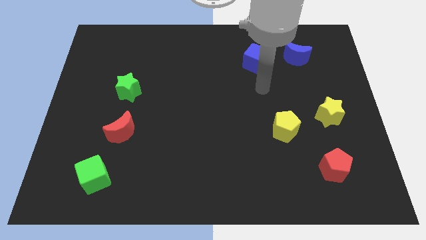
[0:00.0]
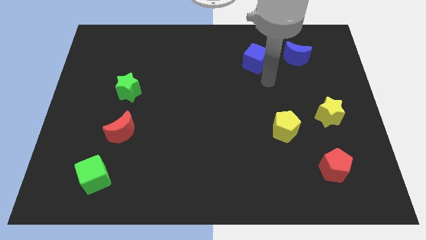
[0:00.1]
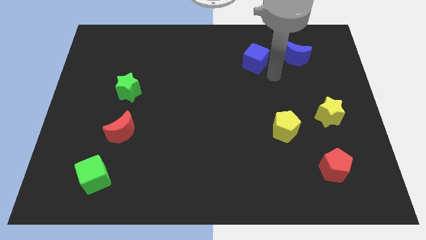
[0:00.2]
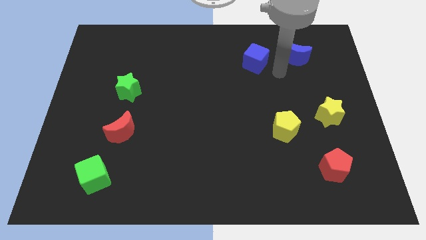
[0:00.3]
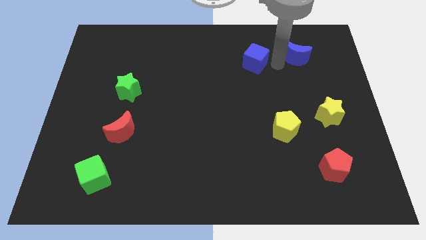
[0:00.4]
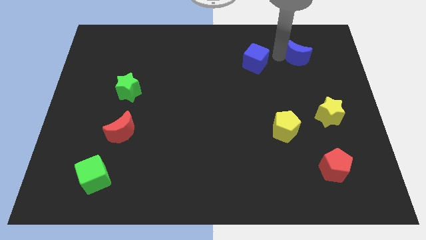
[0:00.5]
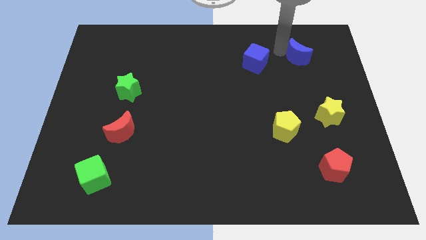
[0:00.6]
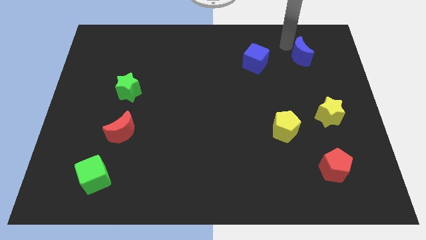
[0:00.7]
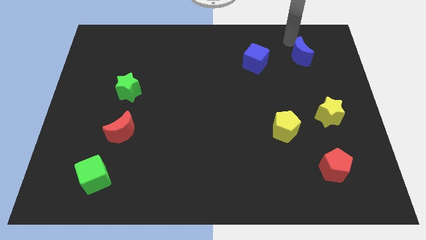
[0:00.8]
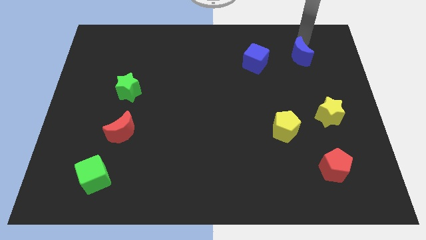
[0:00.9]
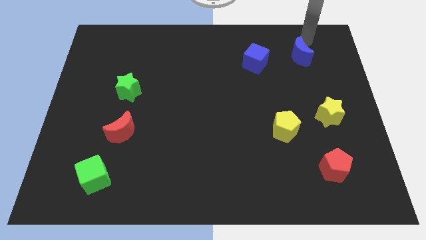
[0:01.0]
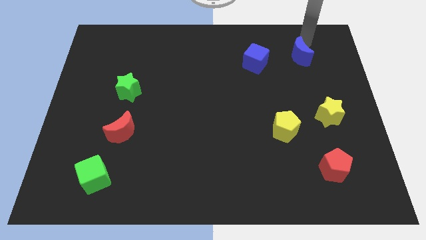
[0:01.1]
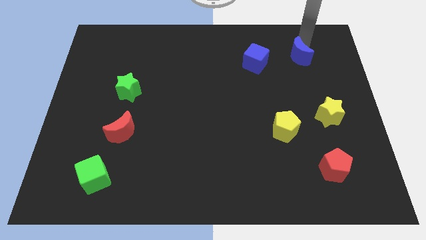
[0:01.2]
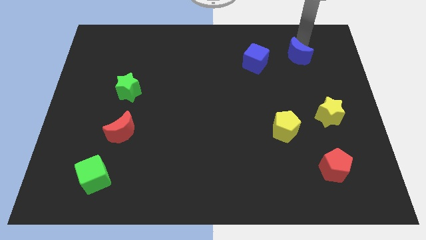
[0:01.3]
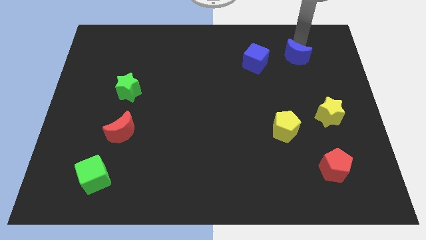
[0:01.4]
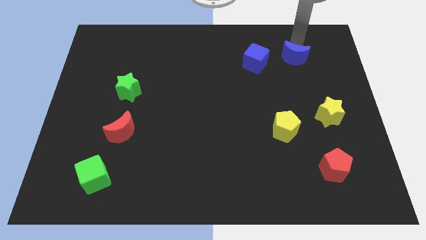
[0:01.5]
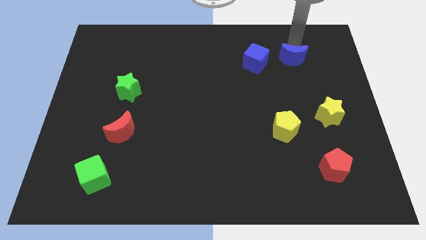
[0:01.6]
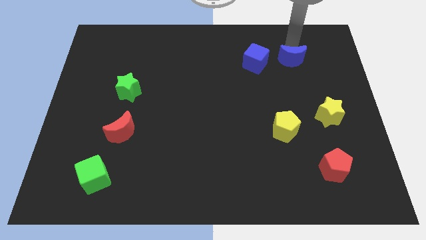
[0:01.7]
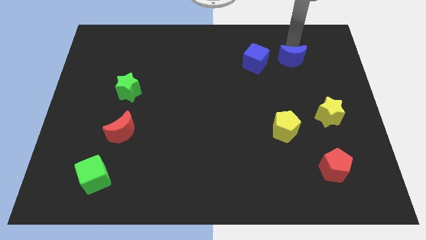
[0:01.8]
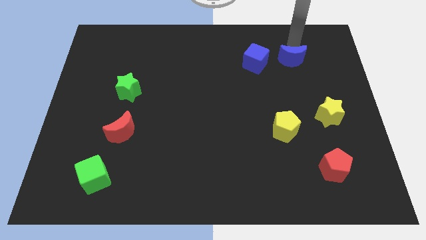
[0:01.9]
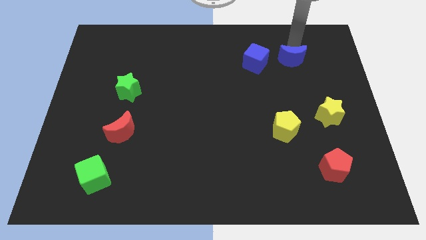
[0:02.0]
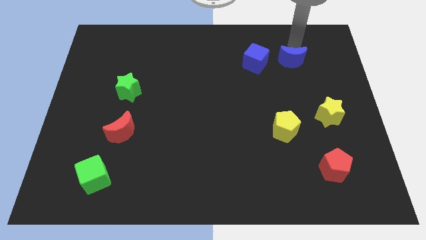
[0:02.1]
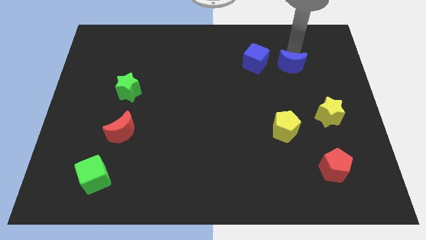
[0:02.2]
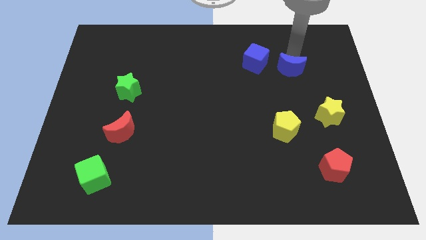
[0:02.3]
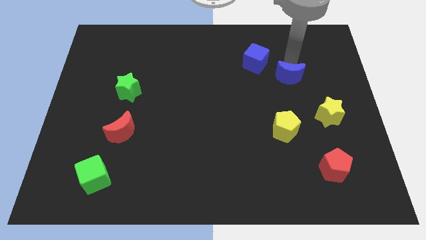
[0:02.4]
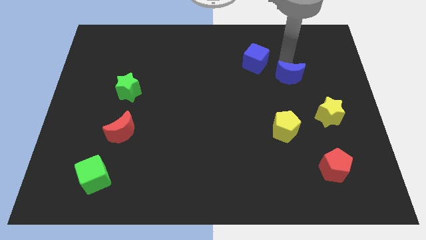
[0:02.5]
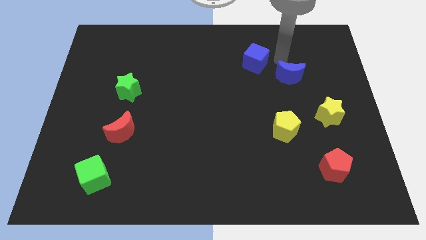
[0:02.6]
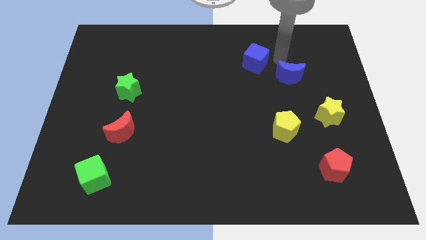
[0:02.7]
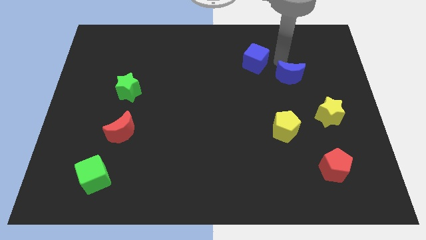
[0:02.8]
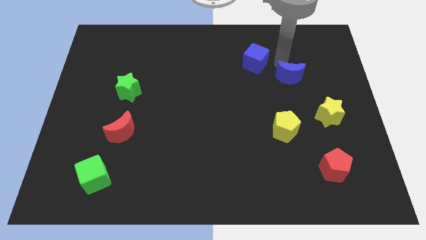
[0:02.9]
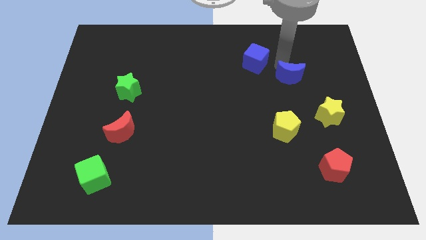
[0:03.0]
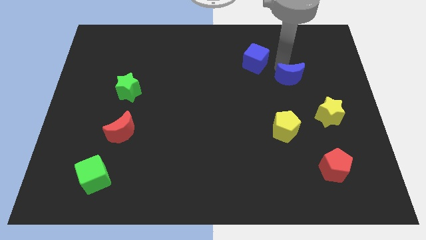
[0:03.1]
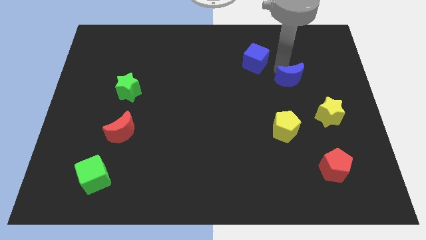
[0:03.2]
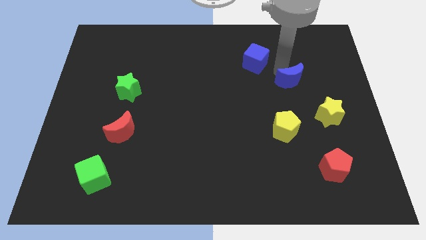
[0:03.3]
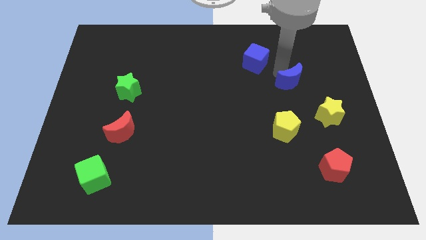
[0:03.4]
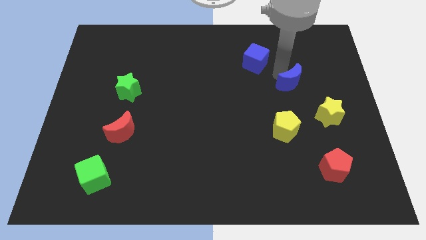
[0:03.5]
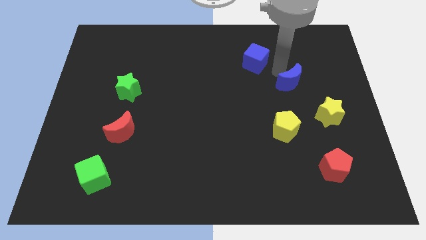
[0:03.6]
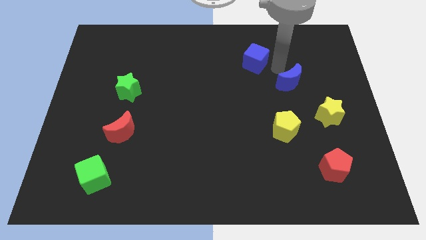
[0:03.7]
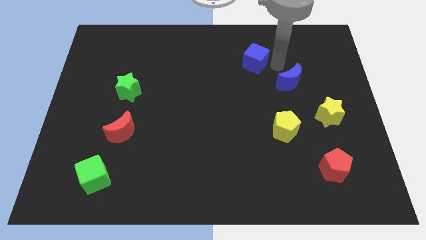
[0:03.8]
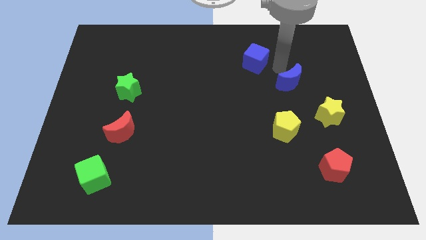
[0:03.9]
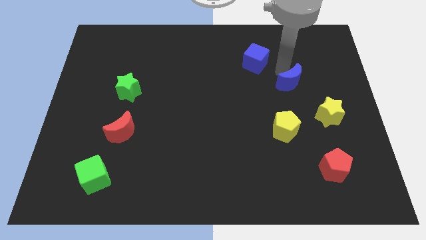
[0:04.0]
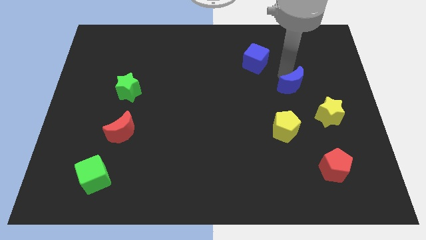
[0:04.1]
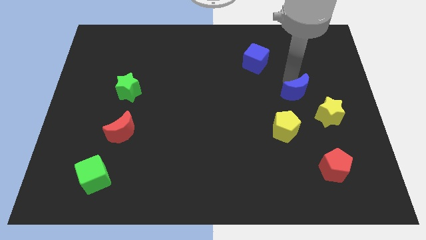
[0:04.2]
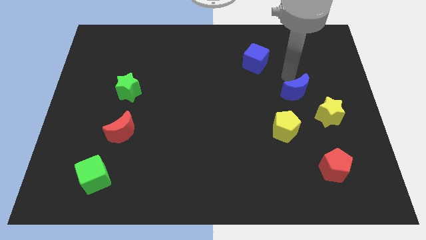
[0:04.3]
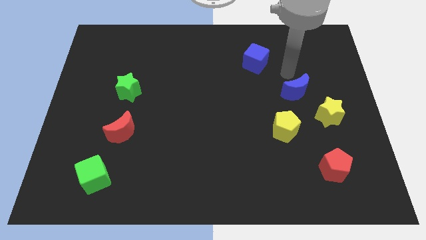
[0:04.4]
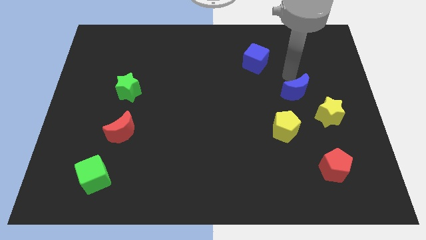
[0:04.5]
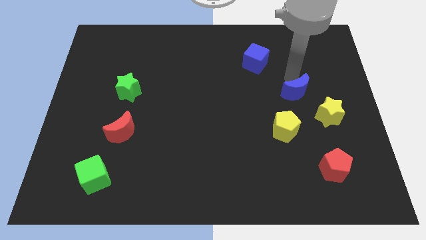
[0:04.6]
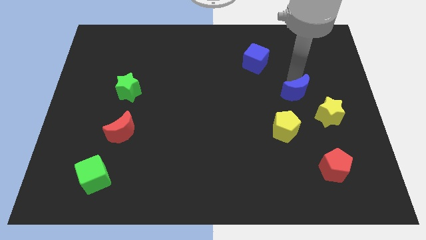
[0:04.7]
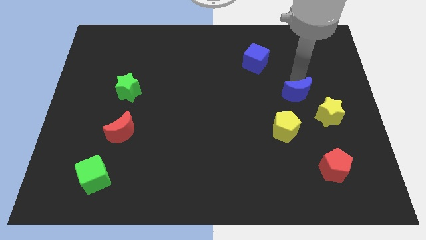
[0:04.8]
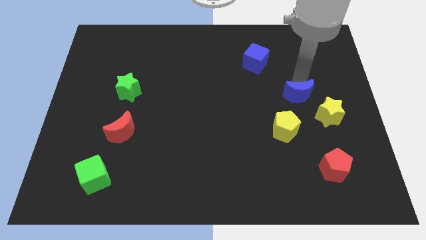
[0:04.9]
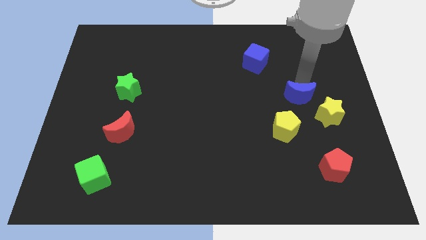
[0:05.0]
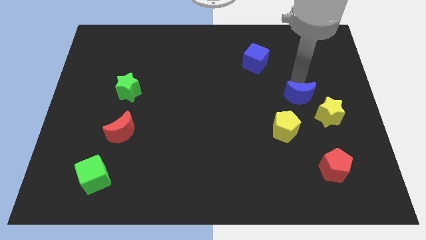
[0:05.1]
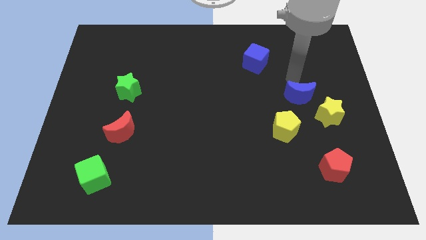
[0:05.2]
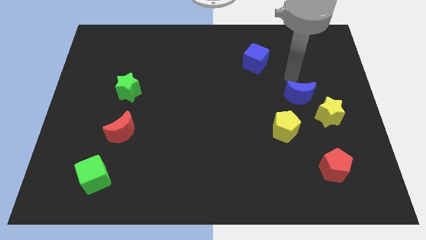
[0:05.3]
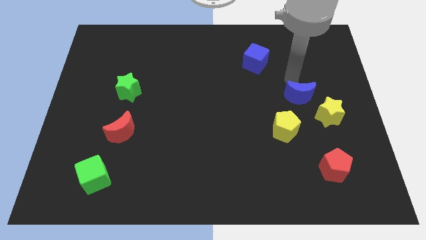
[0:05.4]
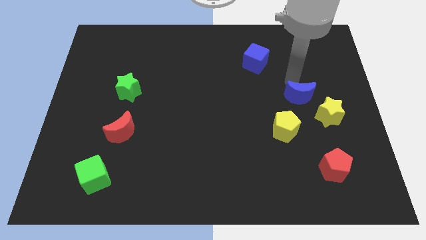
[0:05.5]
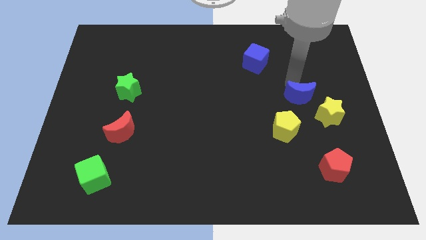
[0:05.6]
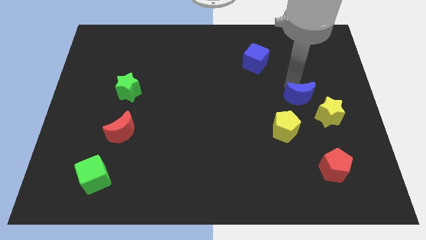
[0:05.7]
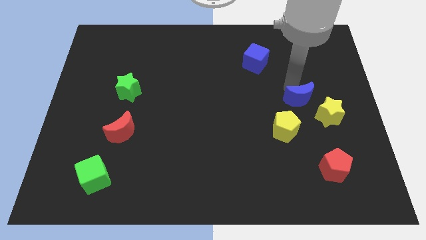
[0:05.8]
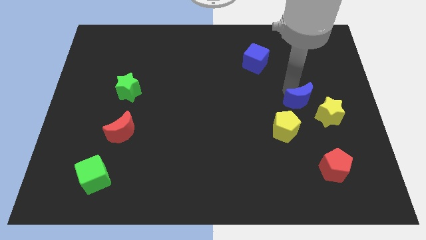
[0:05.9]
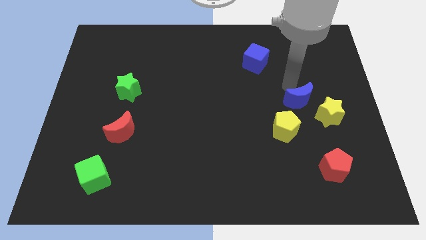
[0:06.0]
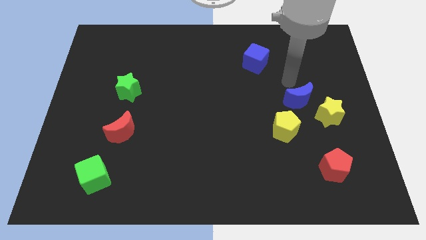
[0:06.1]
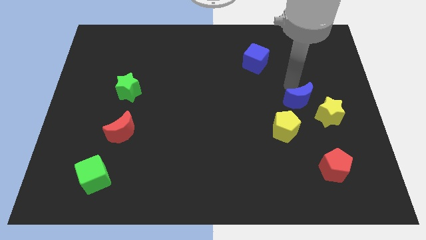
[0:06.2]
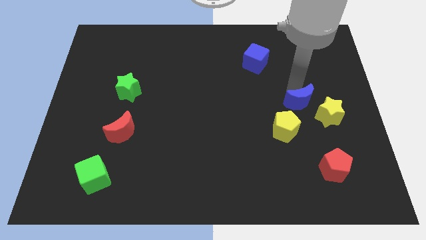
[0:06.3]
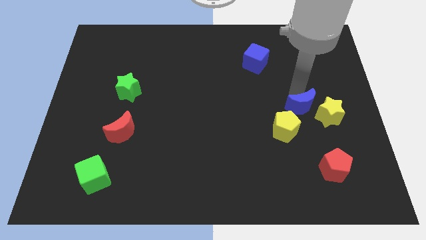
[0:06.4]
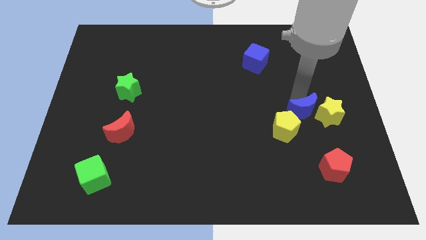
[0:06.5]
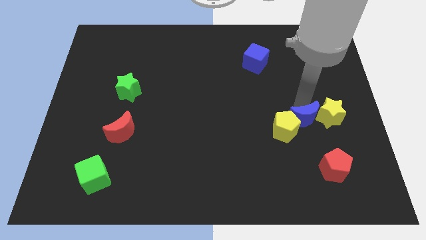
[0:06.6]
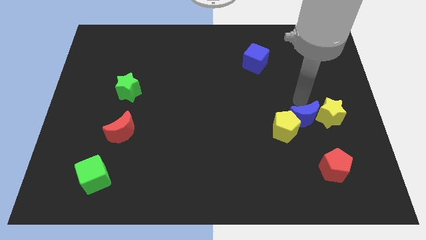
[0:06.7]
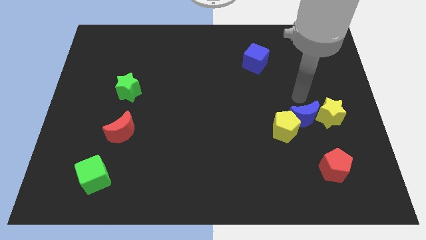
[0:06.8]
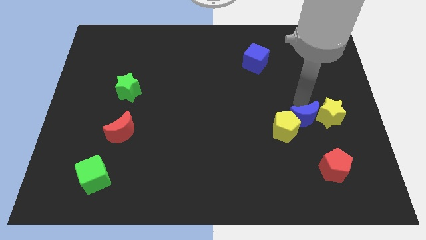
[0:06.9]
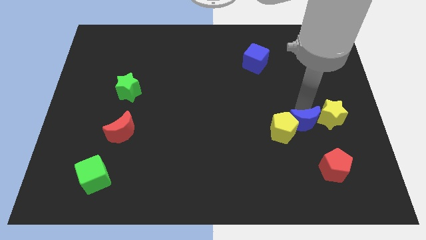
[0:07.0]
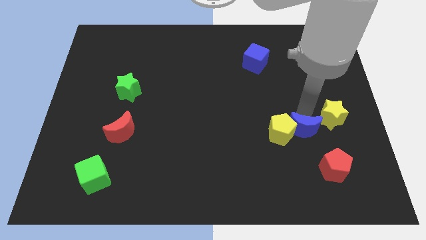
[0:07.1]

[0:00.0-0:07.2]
put the blue moon to the bottom right of the yellow pentagon

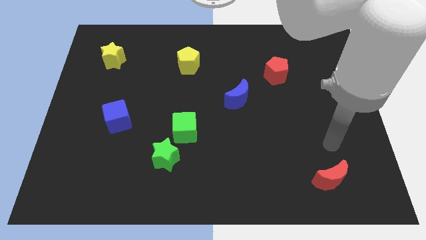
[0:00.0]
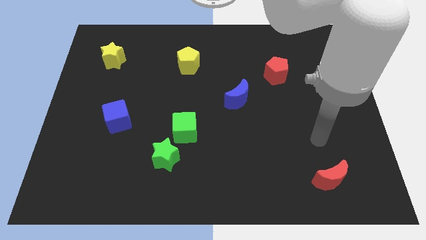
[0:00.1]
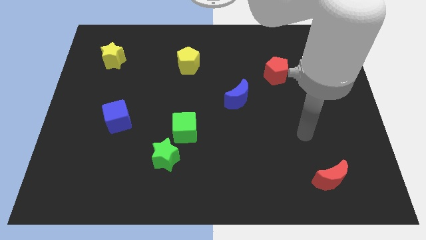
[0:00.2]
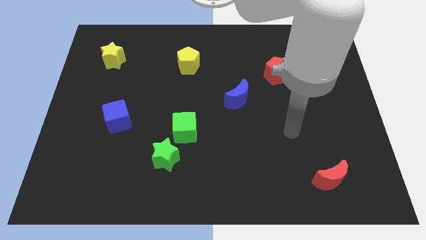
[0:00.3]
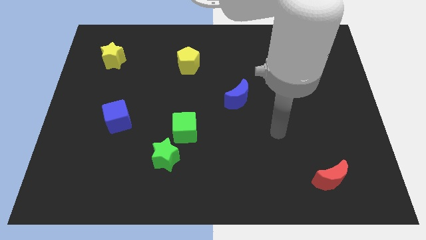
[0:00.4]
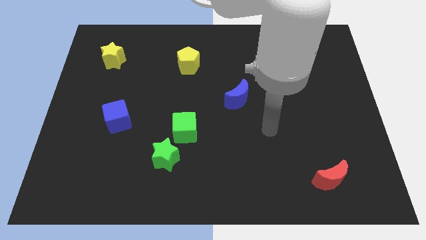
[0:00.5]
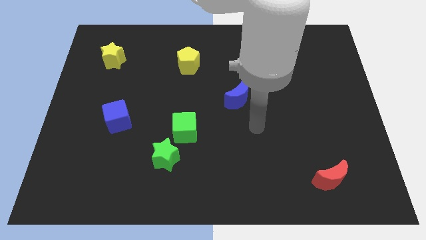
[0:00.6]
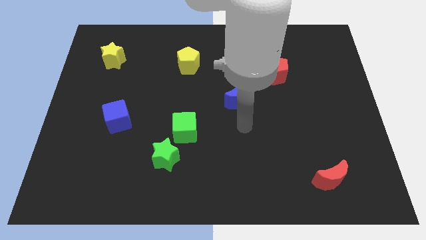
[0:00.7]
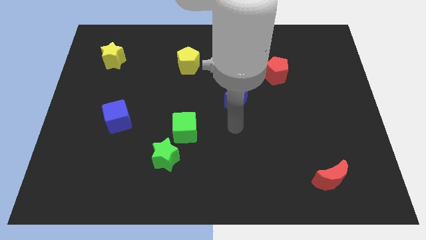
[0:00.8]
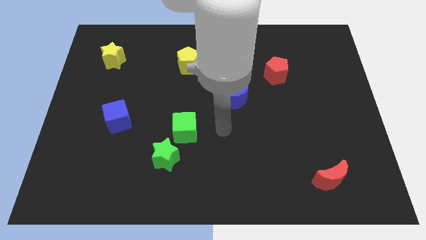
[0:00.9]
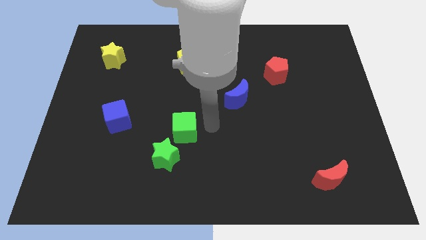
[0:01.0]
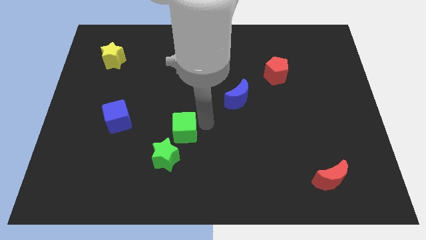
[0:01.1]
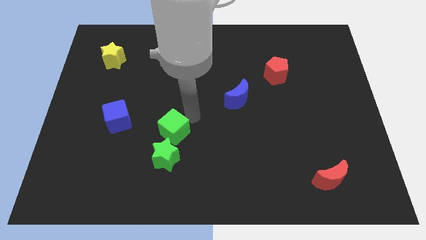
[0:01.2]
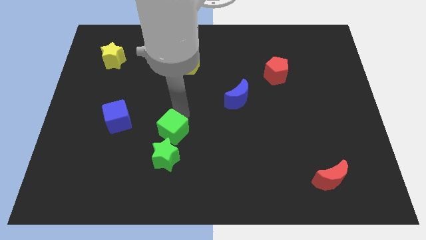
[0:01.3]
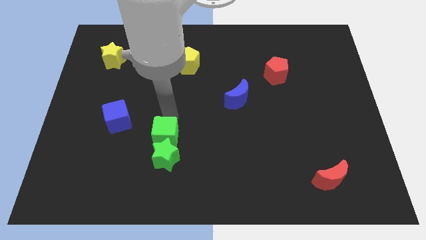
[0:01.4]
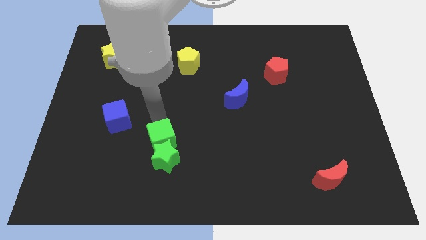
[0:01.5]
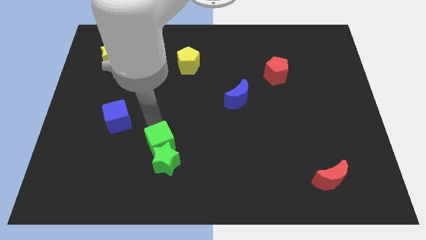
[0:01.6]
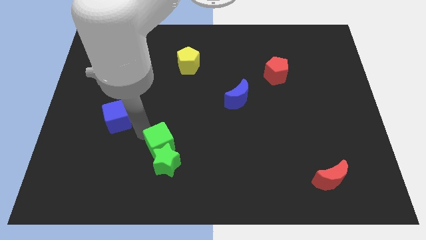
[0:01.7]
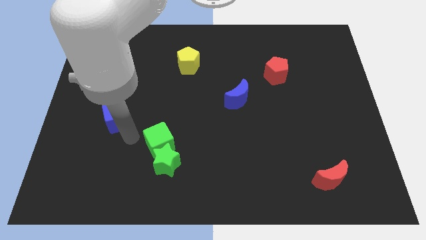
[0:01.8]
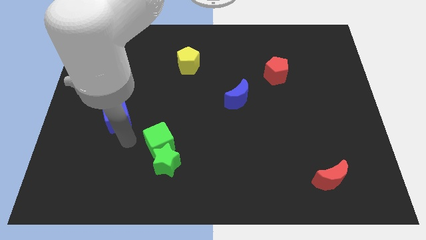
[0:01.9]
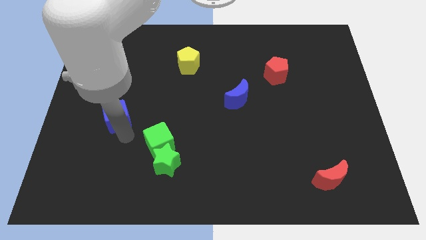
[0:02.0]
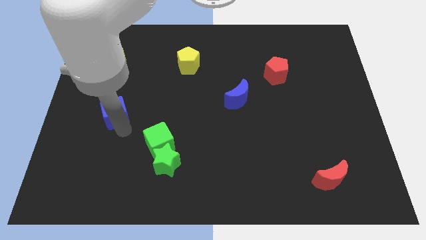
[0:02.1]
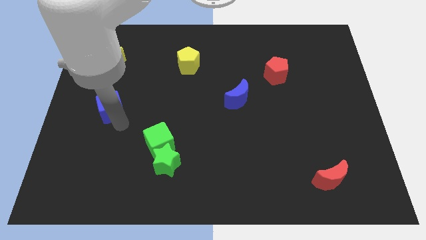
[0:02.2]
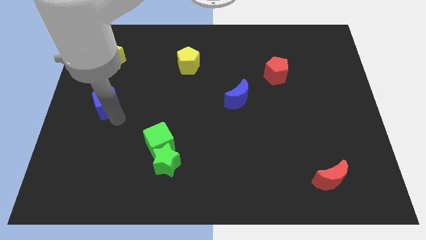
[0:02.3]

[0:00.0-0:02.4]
put the blue cube below the yellow star
